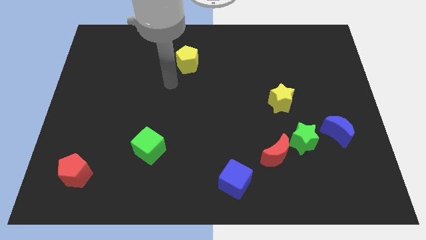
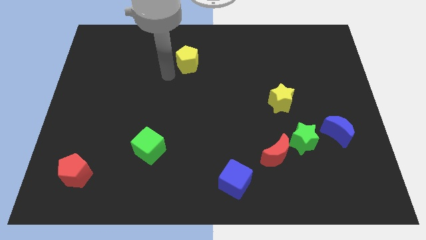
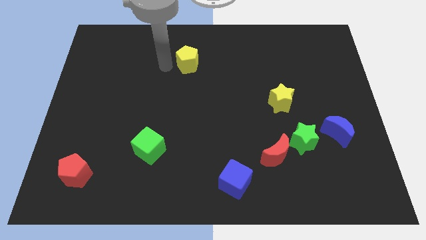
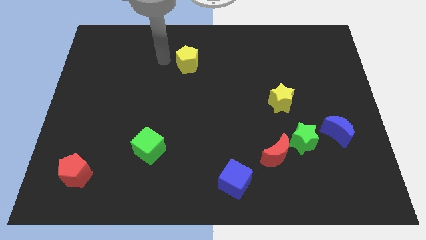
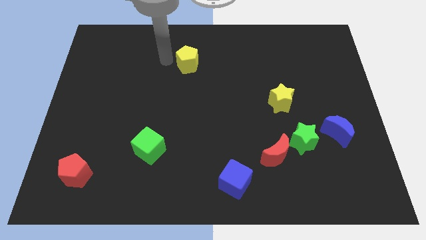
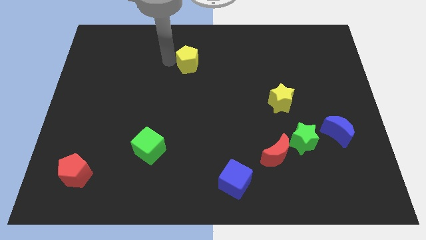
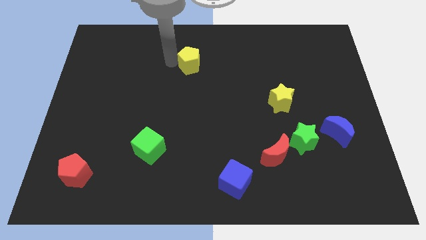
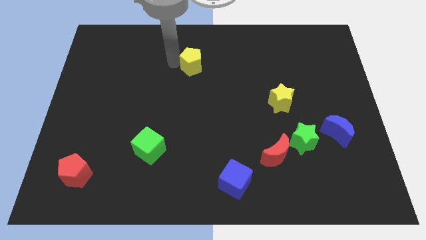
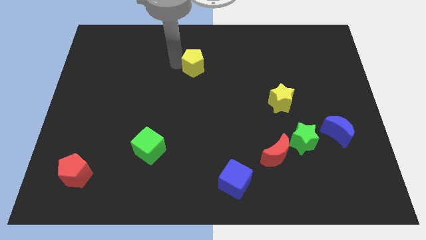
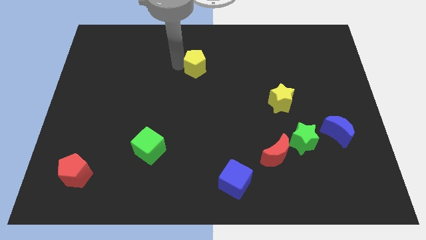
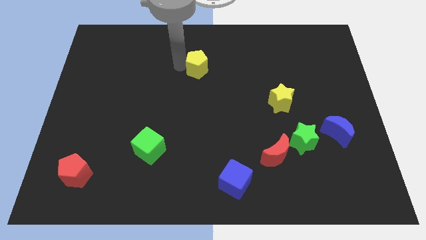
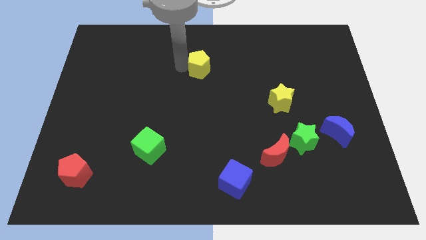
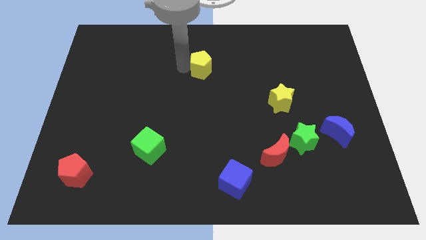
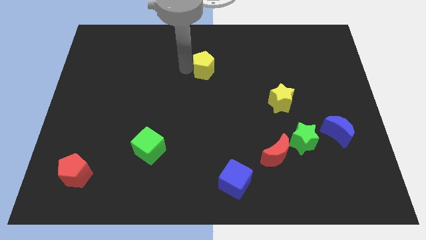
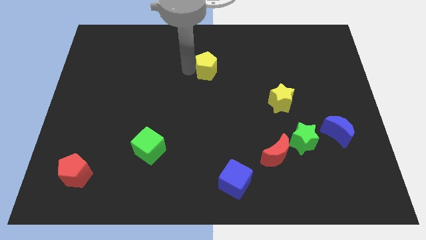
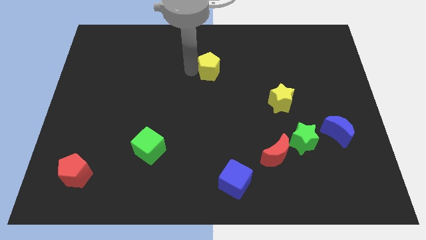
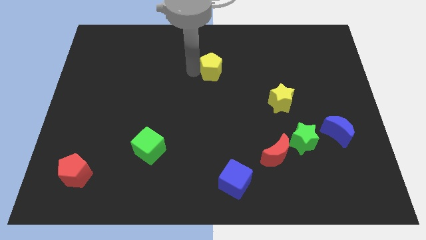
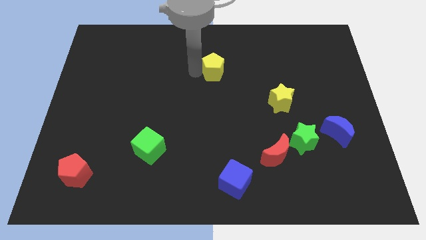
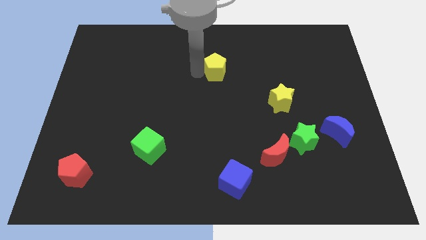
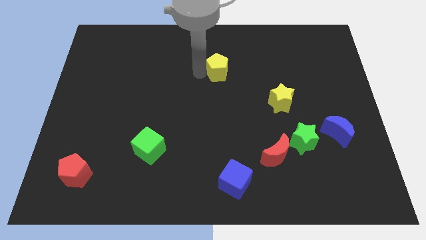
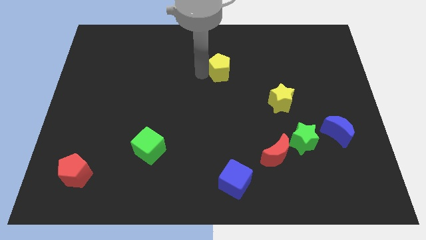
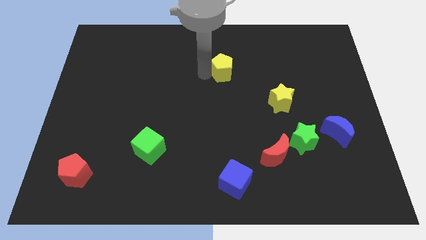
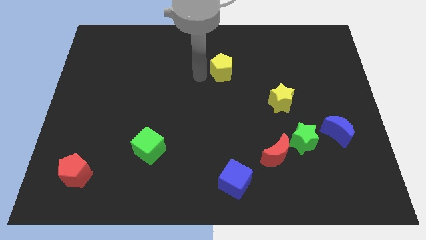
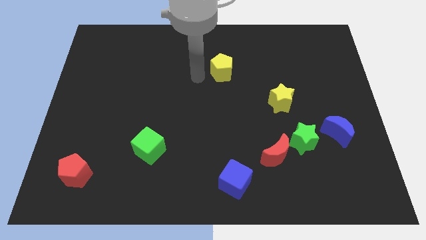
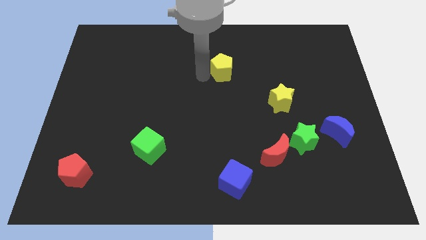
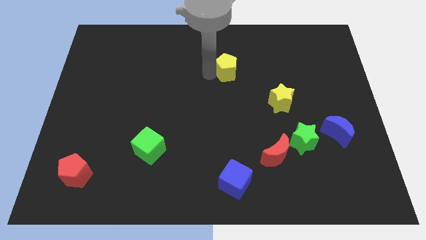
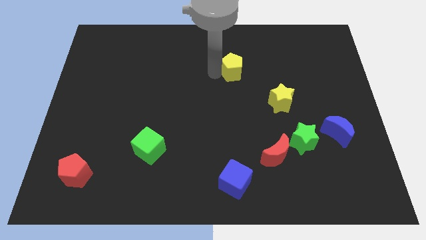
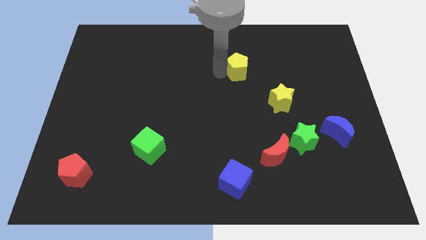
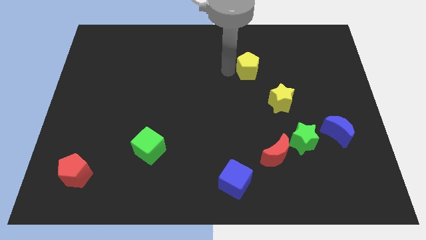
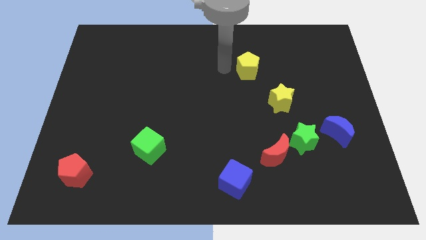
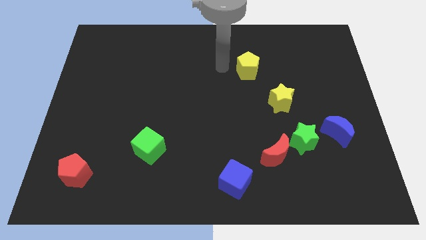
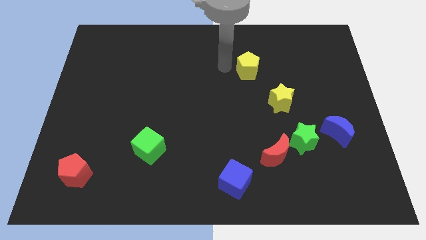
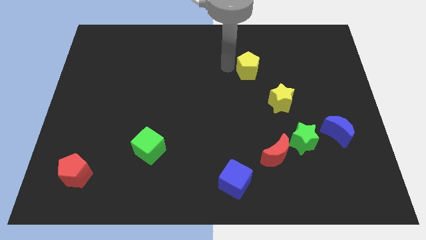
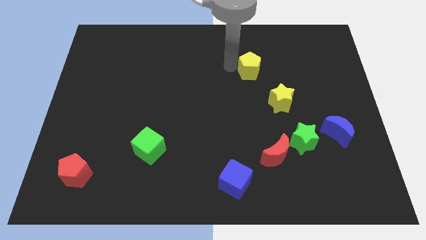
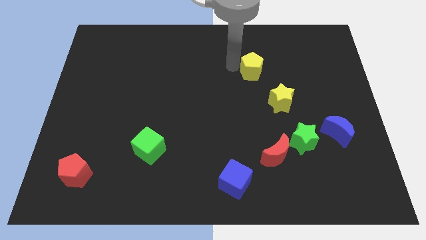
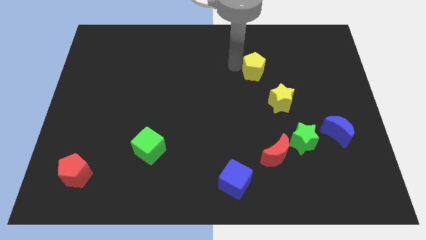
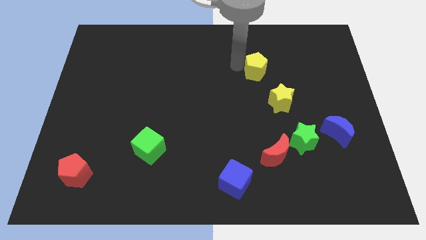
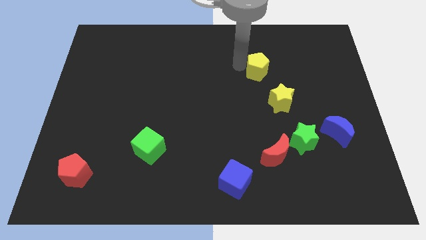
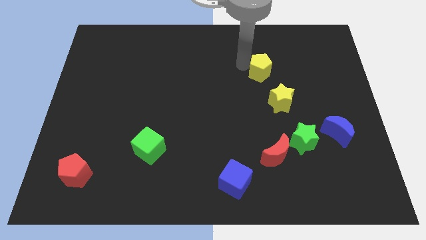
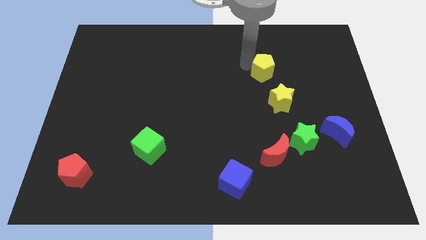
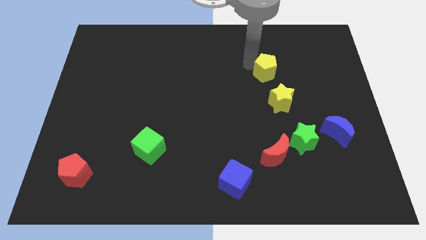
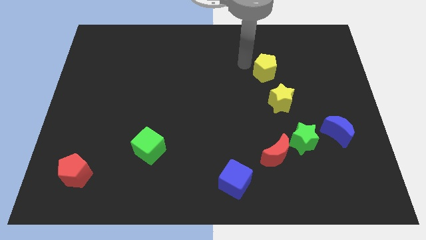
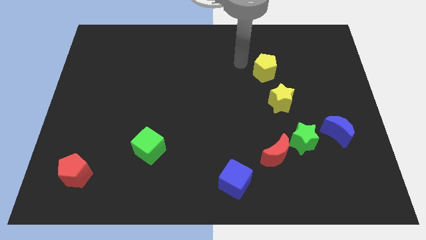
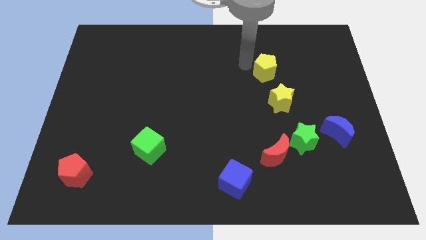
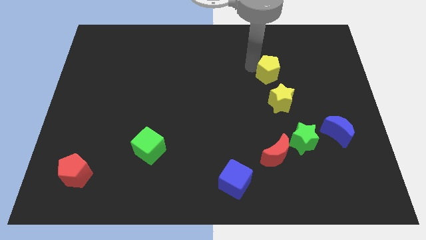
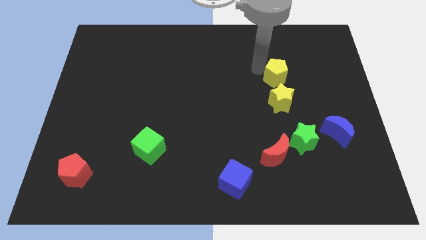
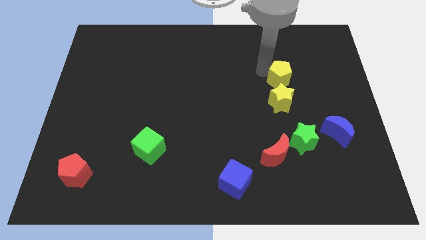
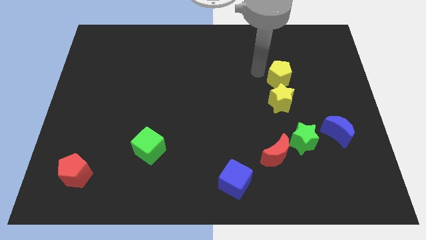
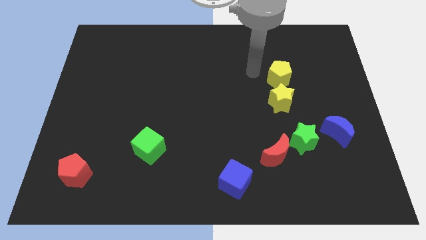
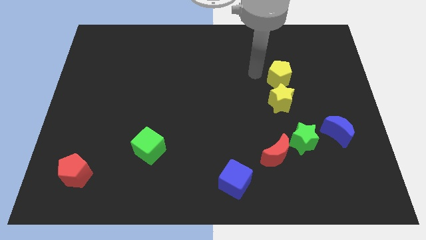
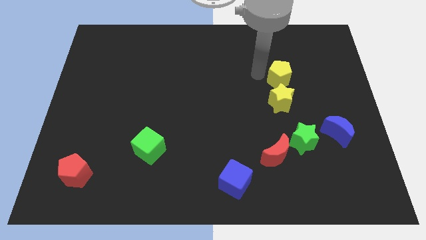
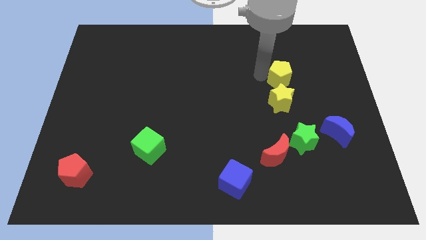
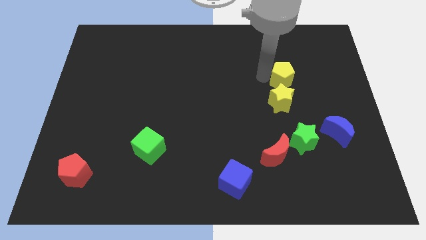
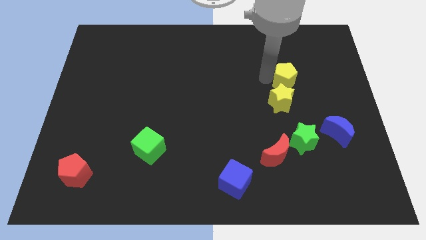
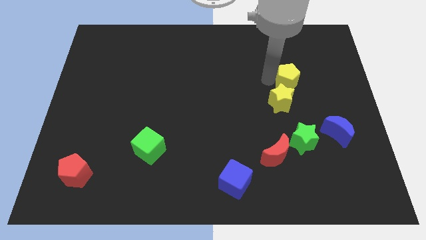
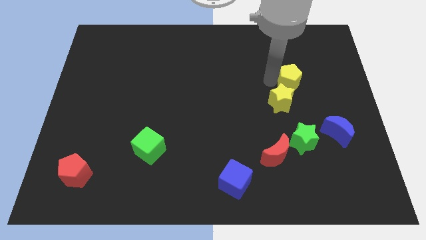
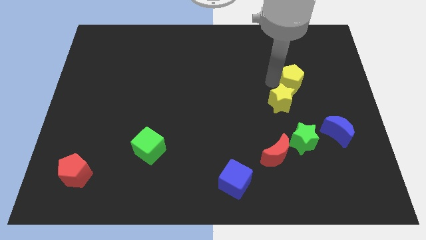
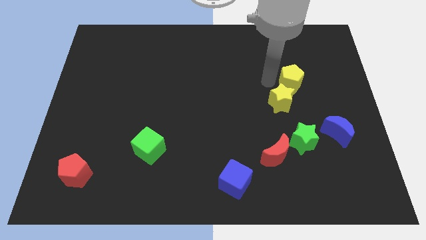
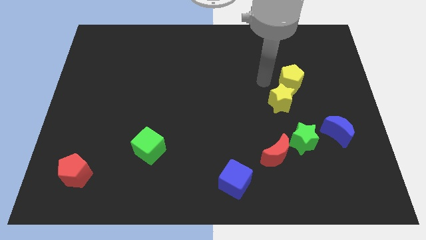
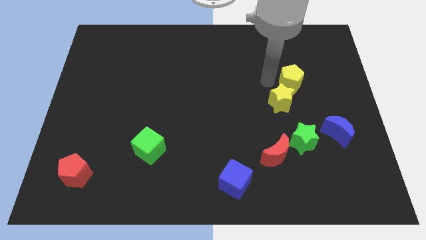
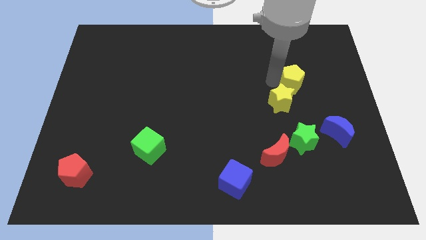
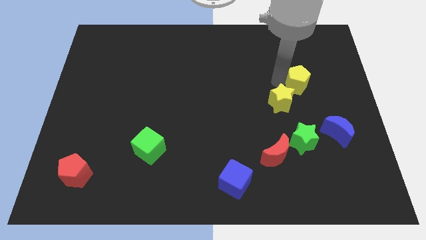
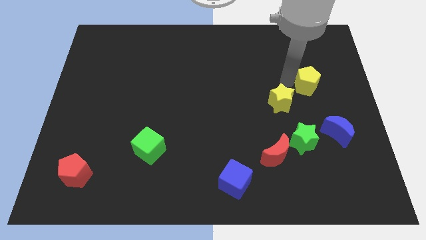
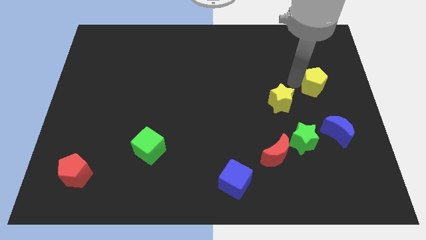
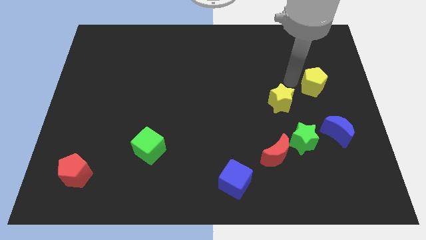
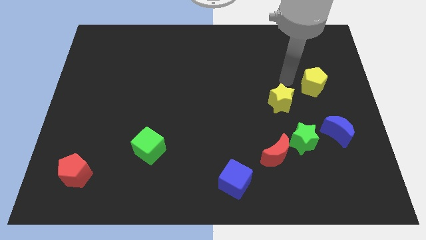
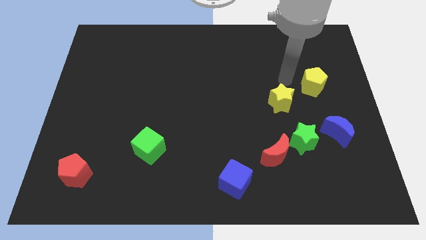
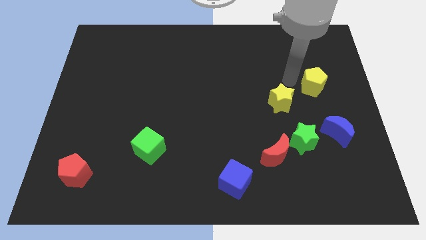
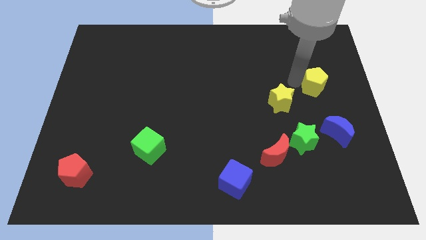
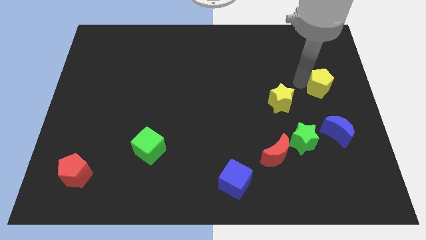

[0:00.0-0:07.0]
put the yellow pentagon to the right side
